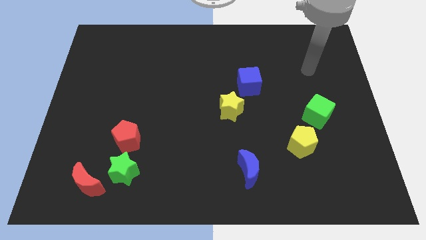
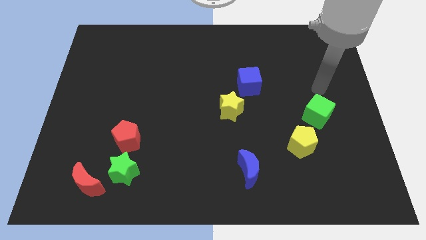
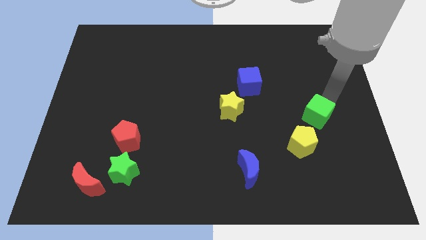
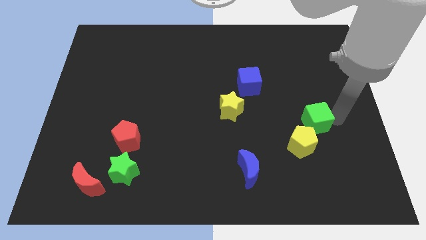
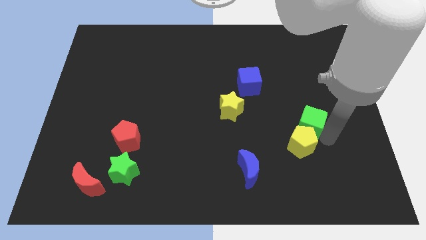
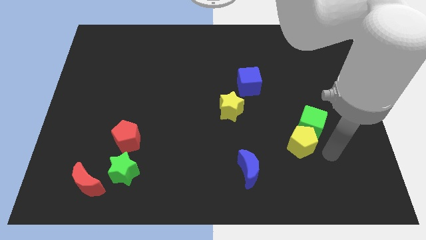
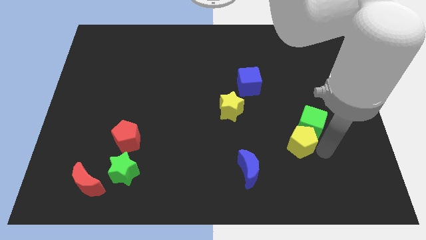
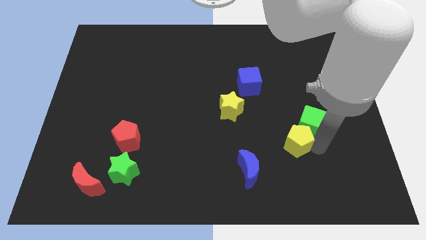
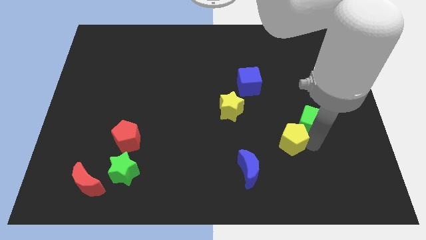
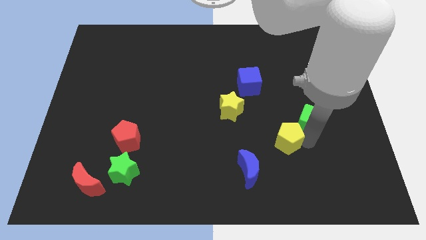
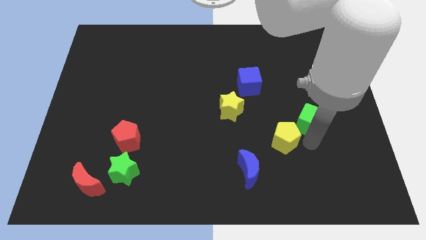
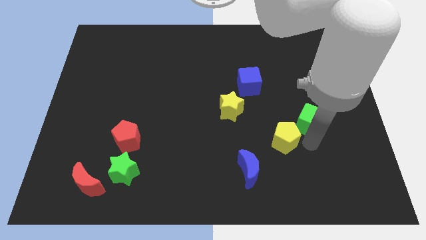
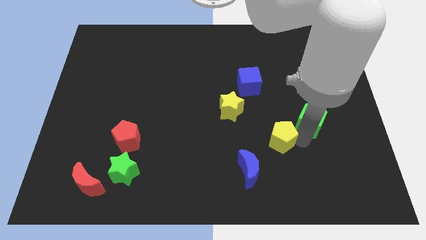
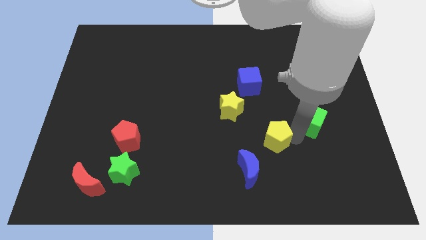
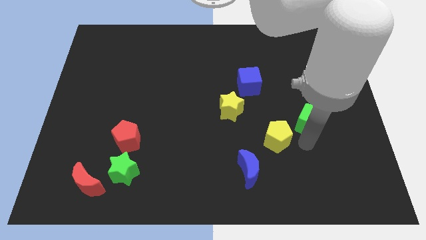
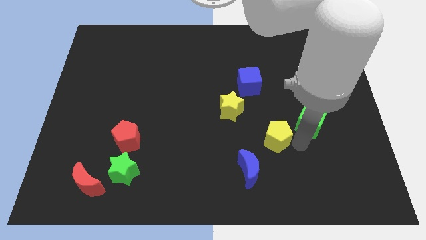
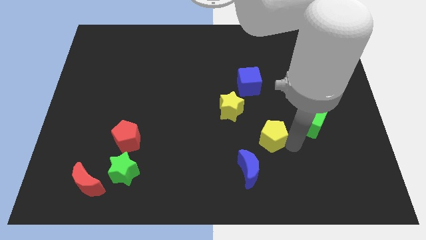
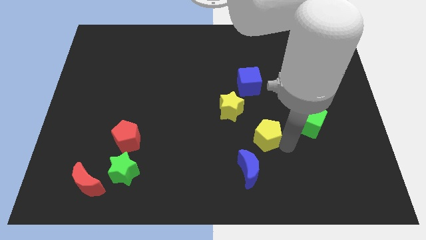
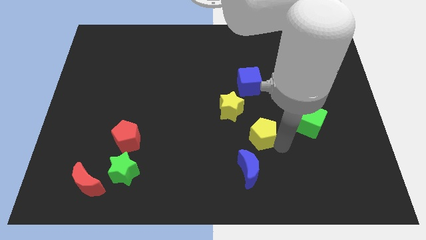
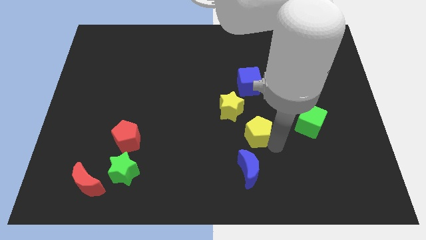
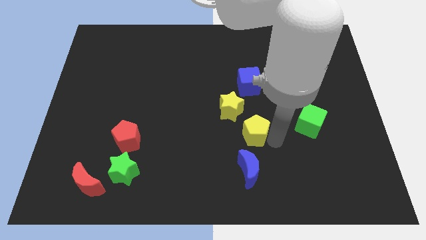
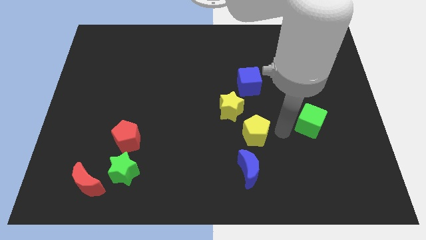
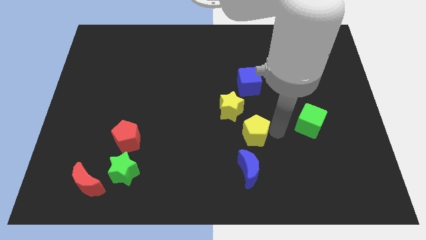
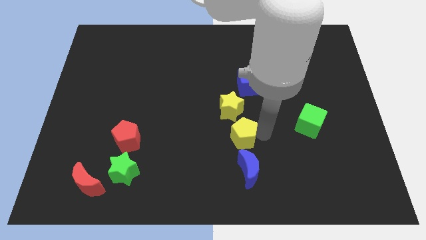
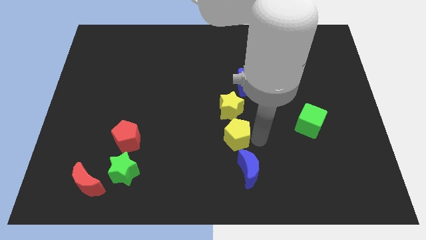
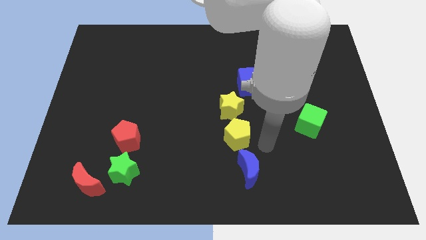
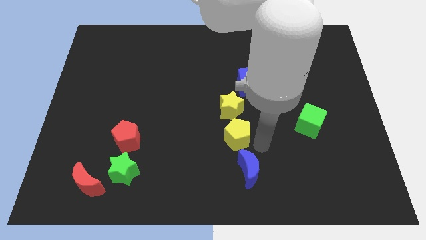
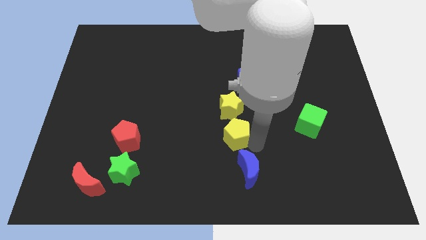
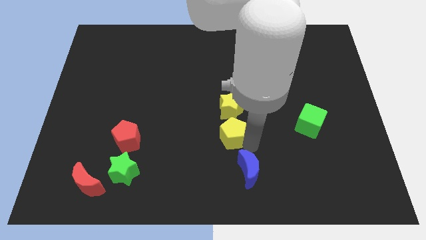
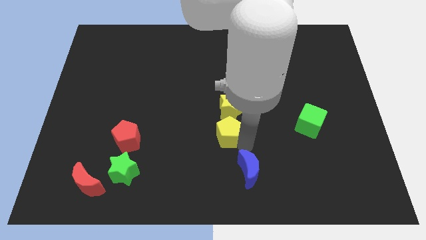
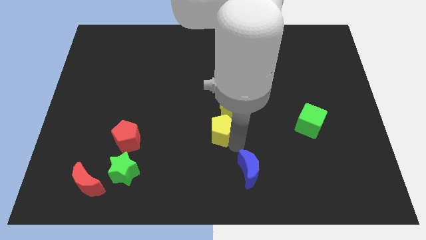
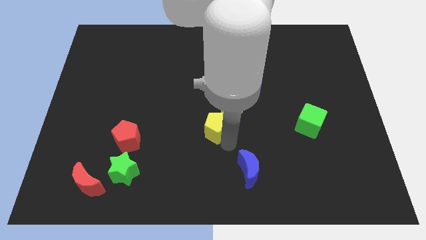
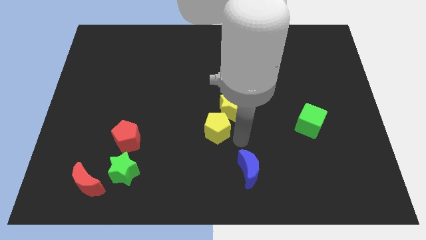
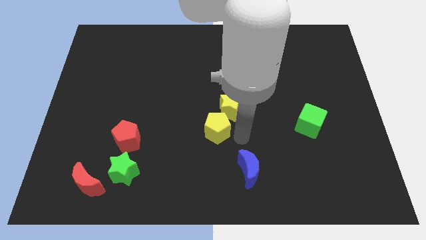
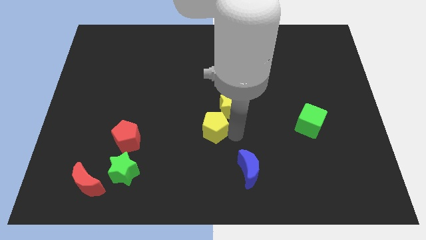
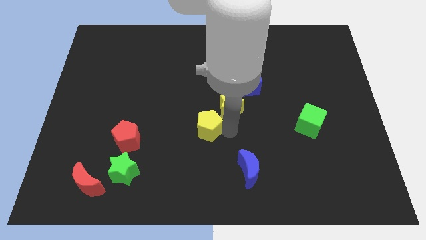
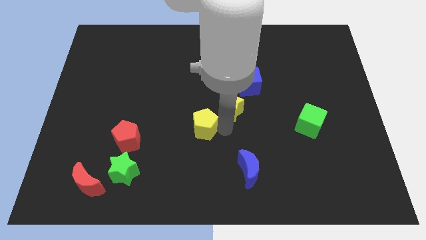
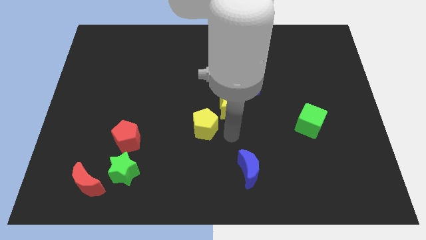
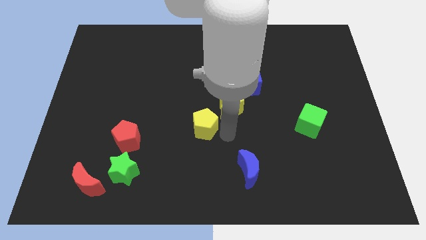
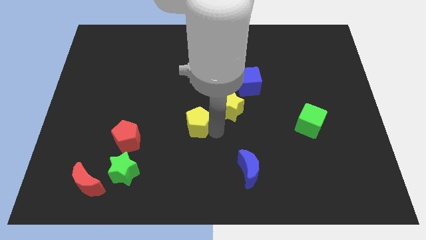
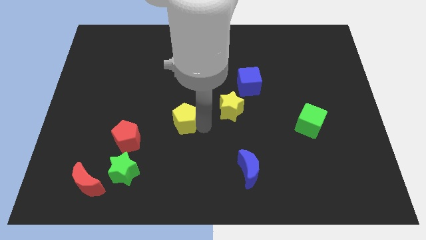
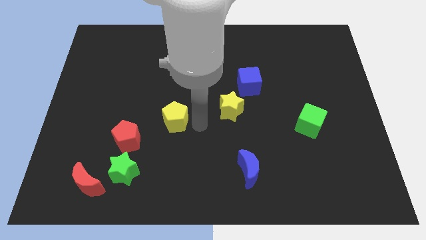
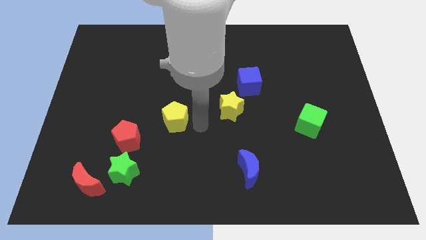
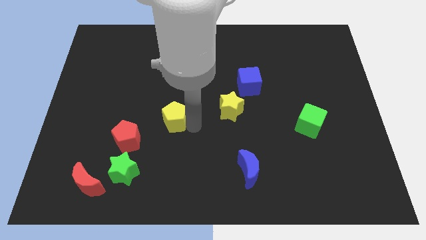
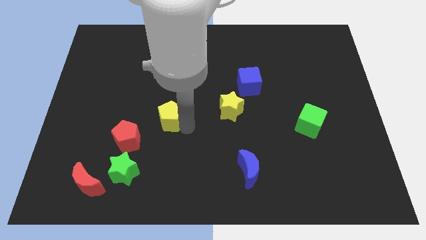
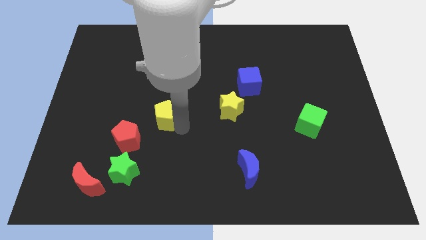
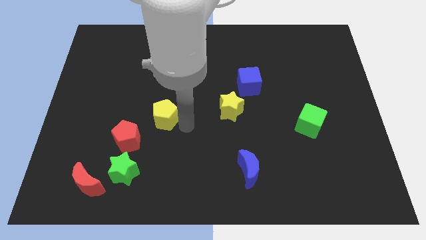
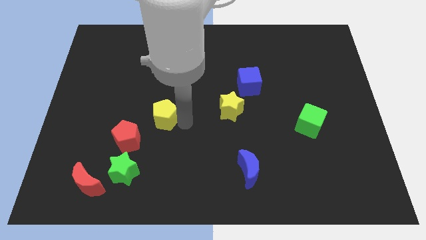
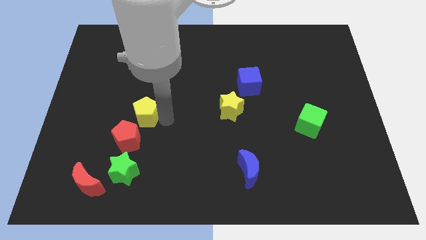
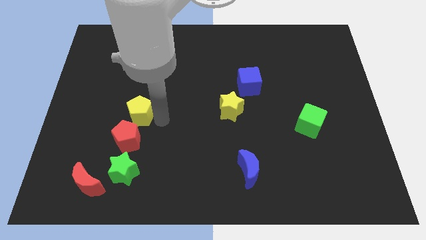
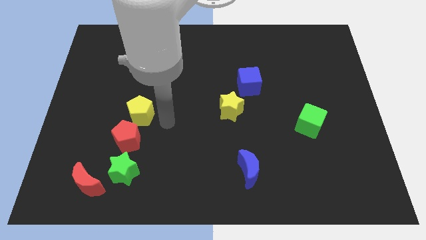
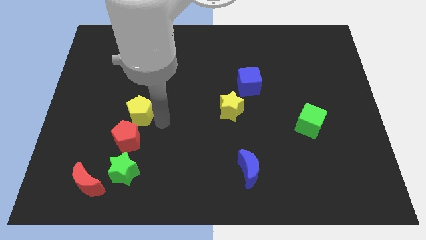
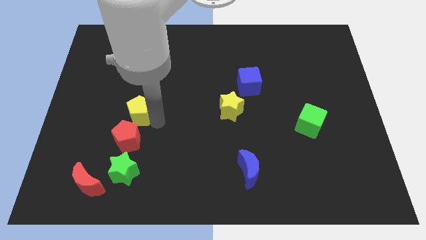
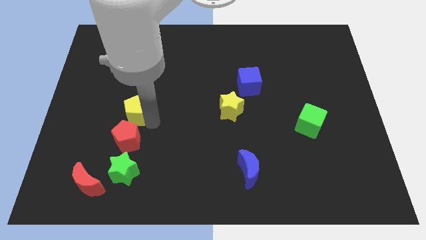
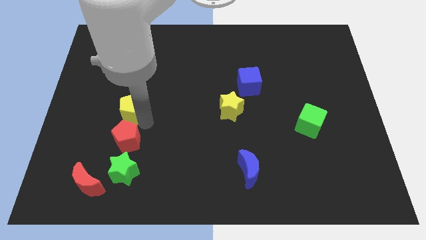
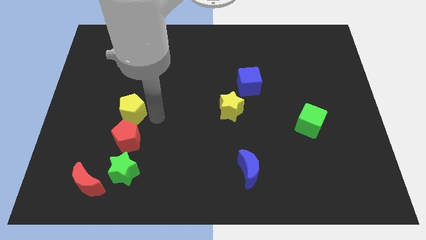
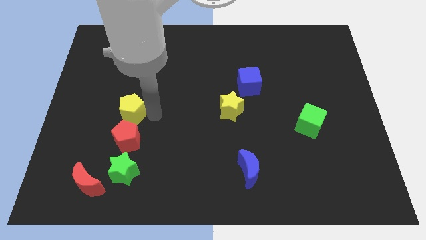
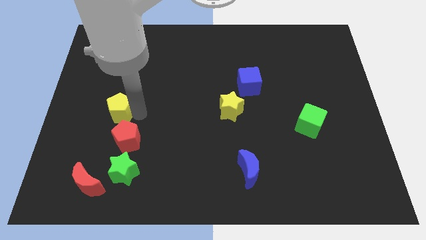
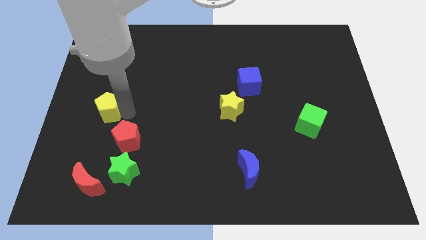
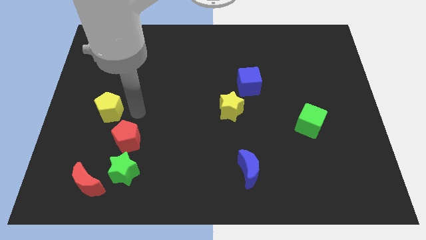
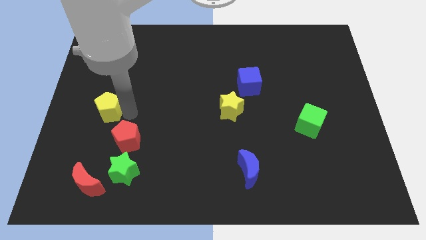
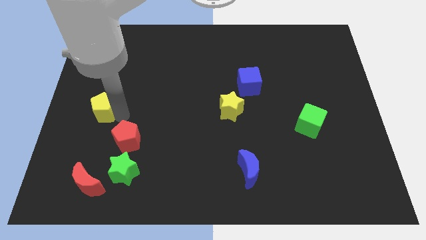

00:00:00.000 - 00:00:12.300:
move the yellow pentagon to the center left

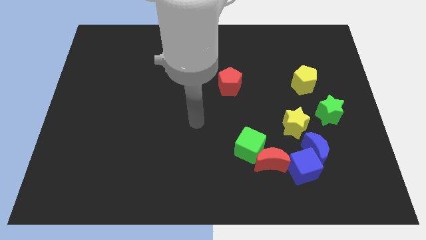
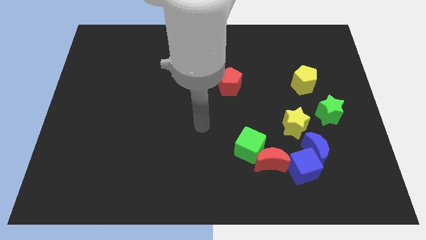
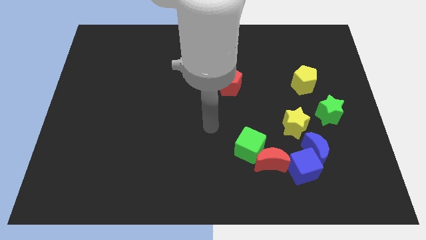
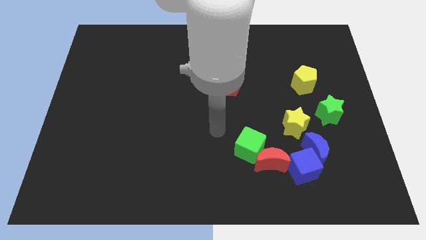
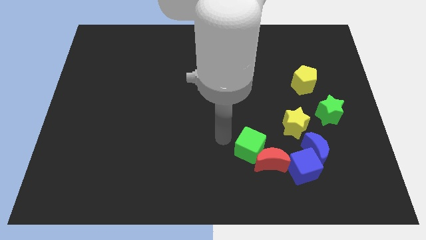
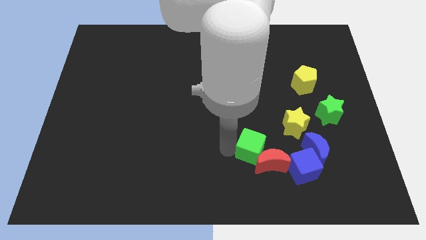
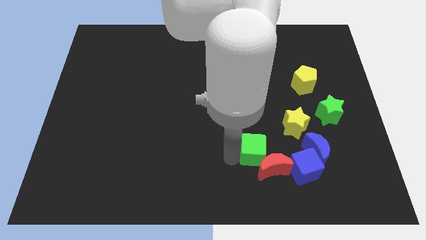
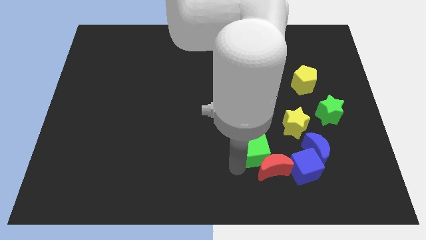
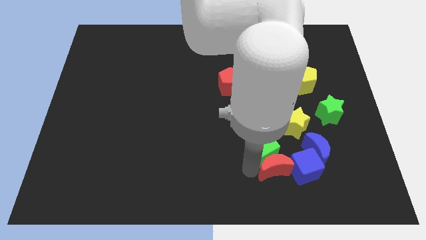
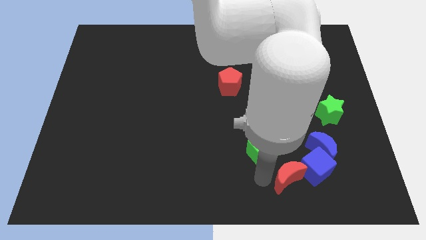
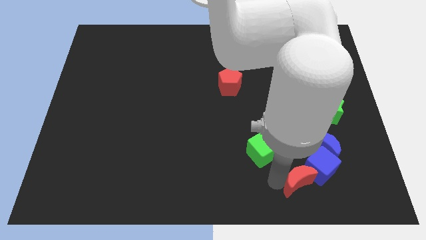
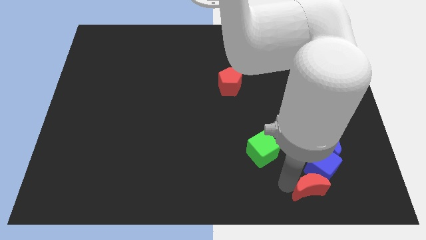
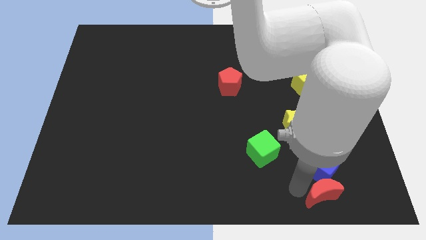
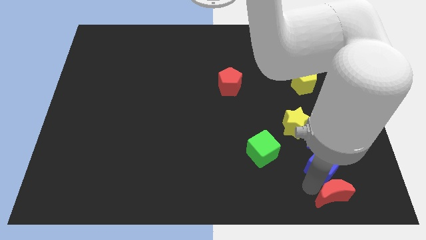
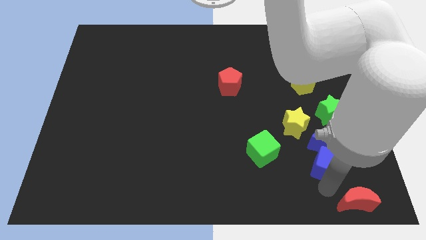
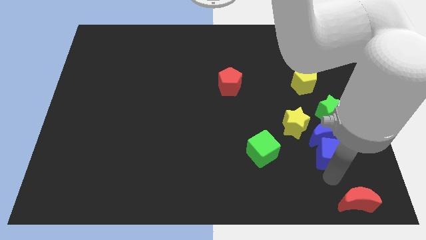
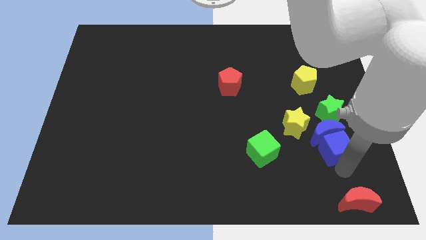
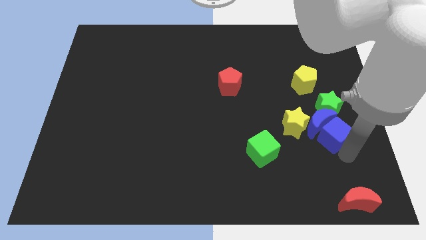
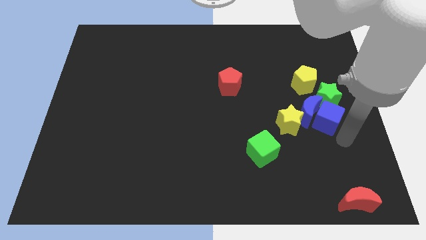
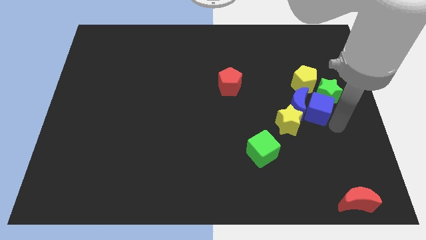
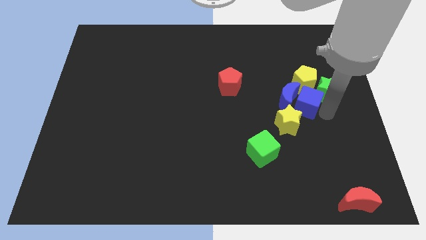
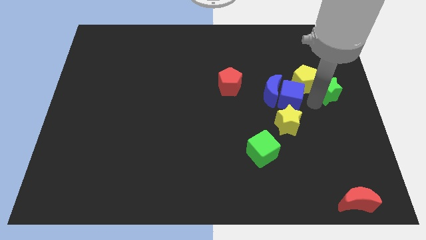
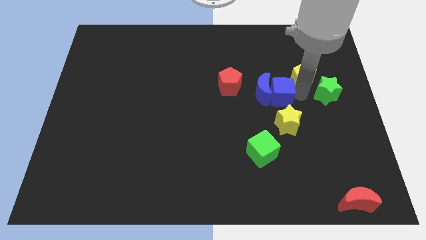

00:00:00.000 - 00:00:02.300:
move the blue moon to the middle
